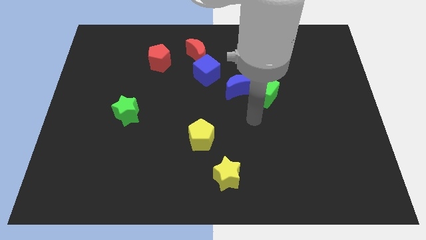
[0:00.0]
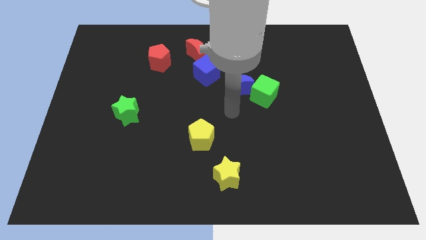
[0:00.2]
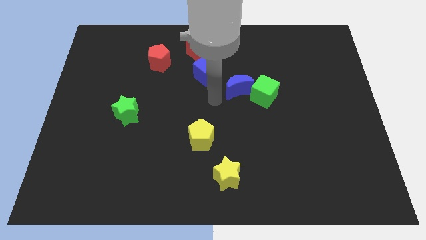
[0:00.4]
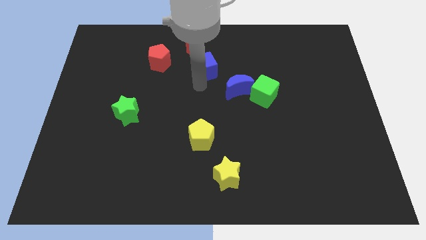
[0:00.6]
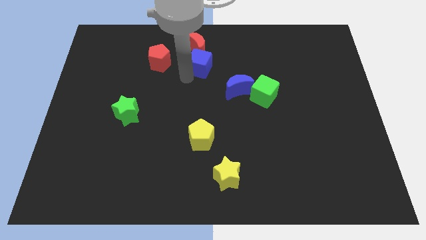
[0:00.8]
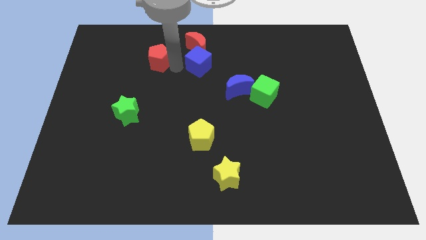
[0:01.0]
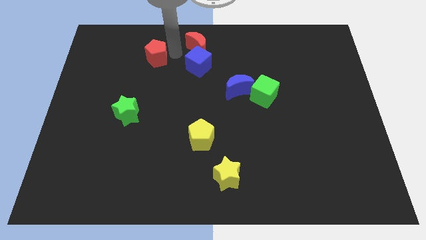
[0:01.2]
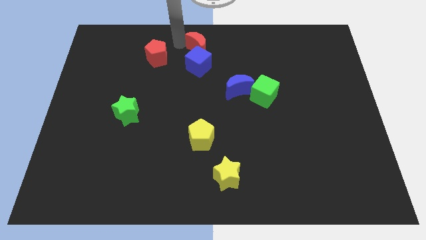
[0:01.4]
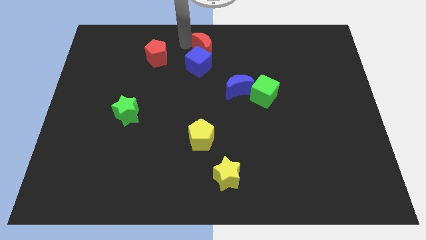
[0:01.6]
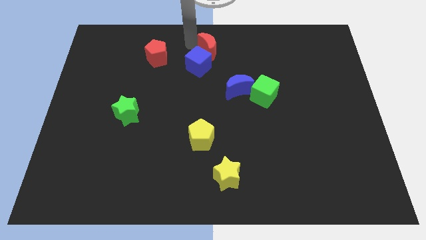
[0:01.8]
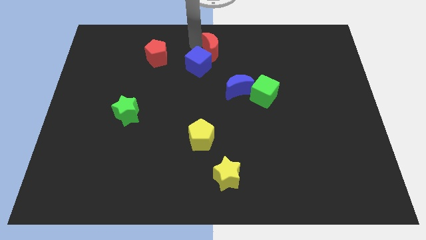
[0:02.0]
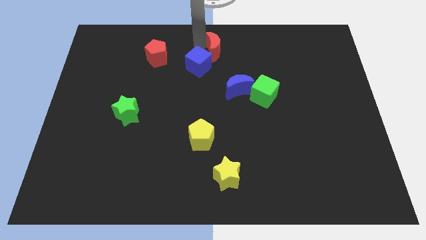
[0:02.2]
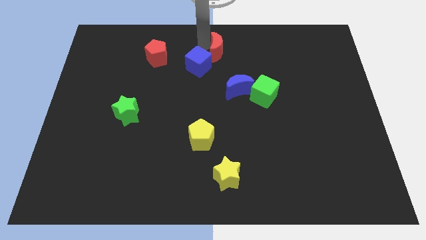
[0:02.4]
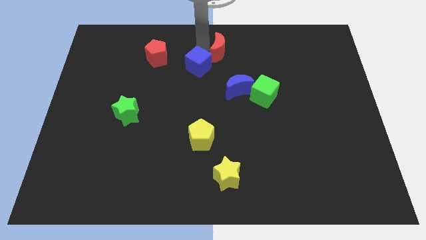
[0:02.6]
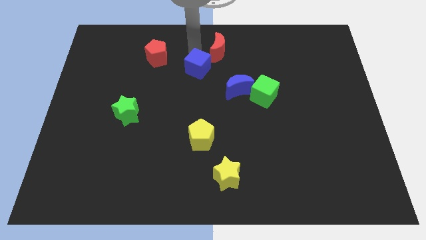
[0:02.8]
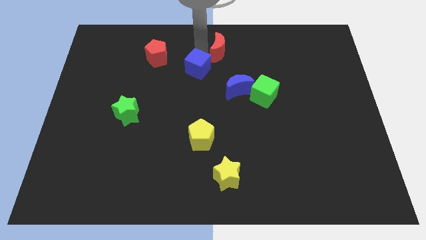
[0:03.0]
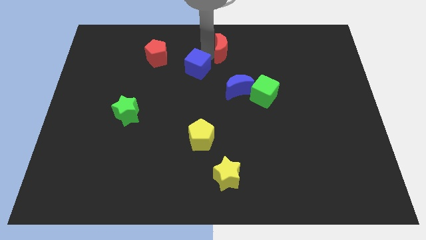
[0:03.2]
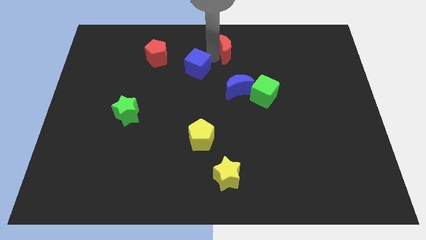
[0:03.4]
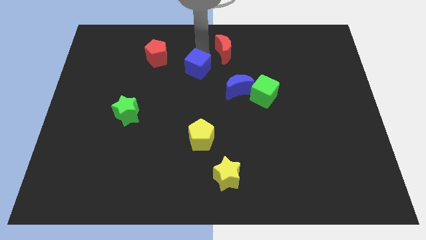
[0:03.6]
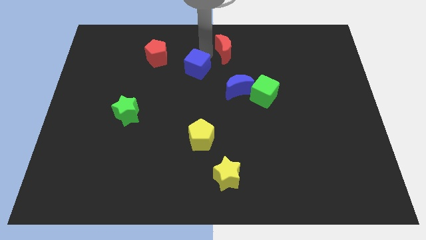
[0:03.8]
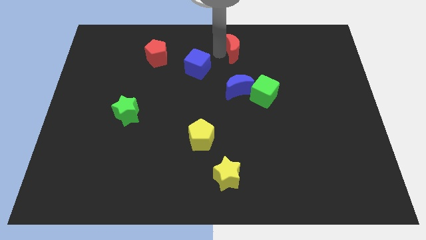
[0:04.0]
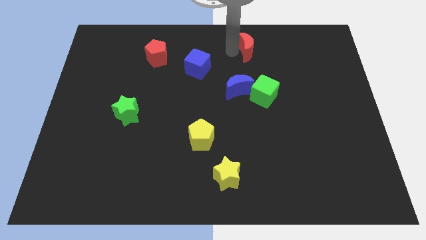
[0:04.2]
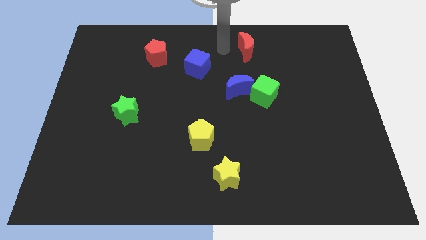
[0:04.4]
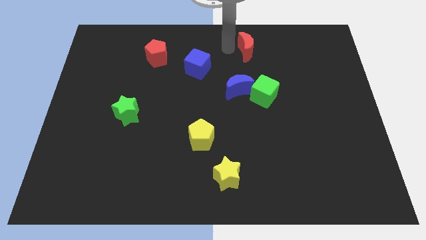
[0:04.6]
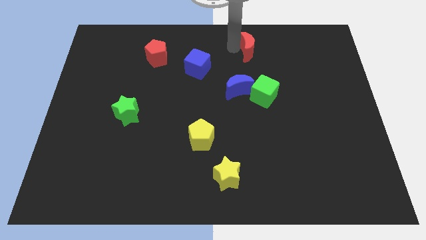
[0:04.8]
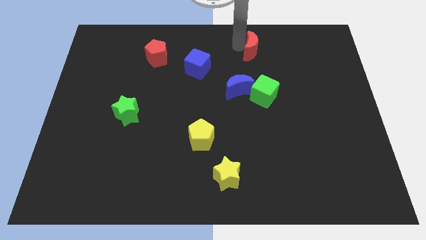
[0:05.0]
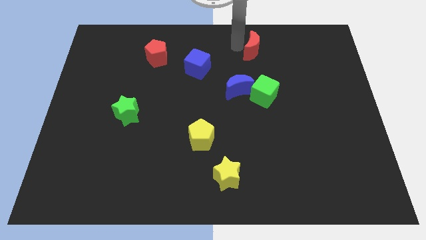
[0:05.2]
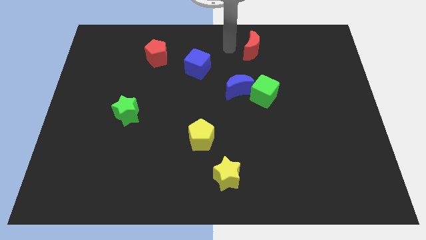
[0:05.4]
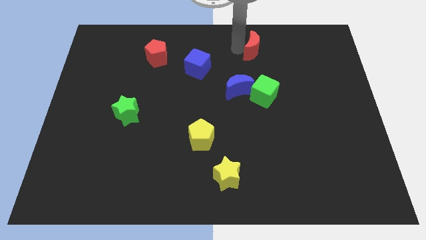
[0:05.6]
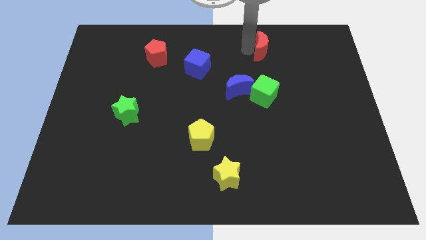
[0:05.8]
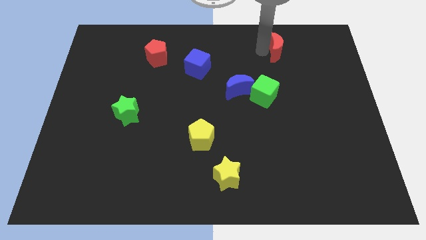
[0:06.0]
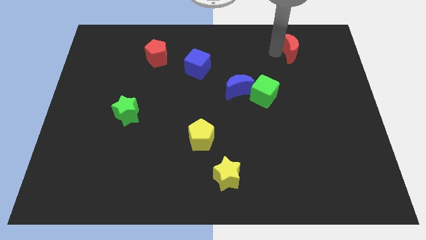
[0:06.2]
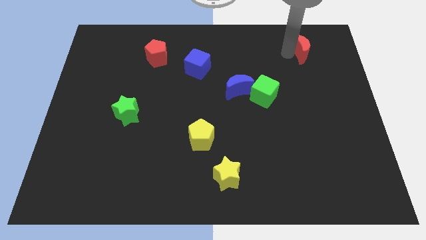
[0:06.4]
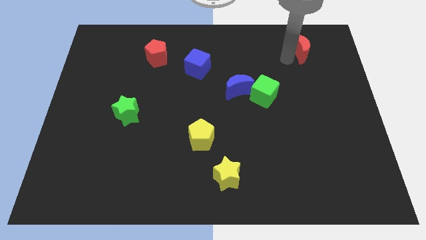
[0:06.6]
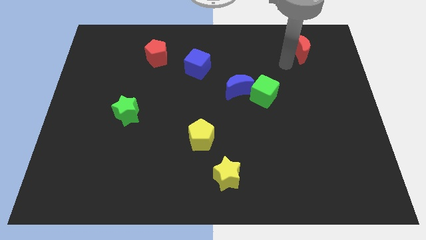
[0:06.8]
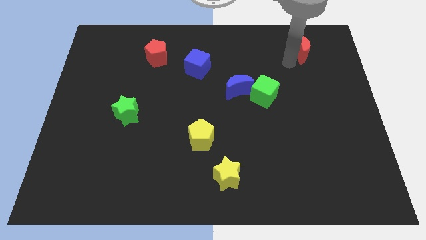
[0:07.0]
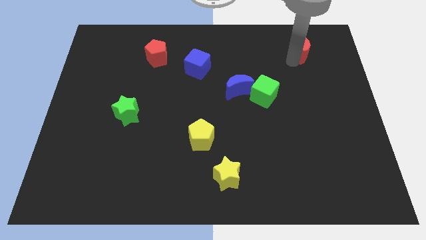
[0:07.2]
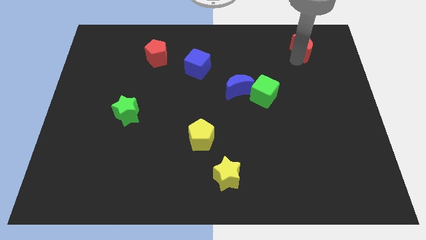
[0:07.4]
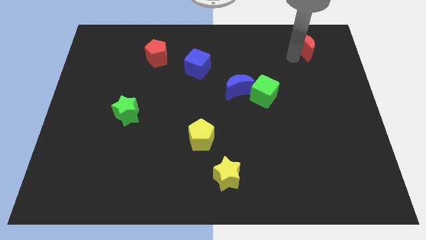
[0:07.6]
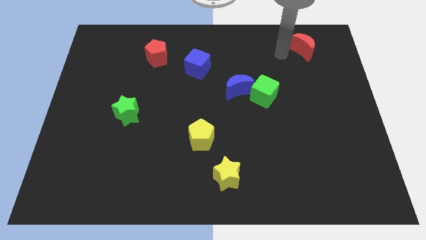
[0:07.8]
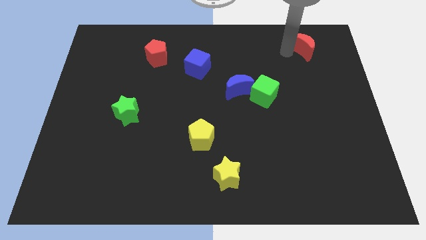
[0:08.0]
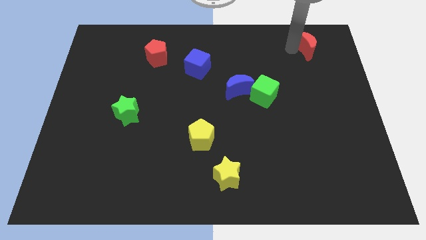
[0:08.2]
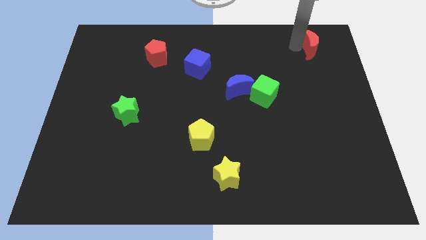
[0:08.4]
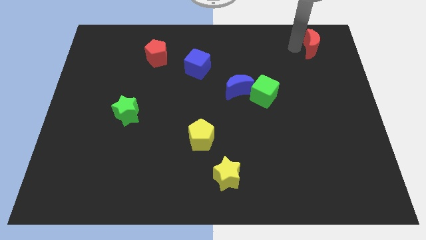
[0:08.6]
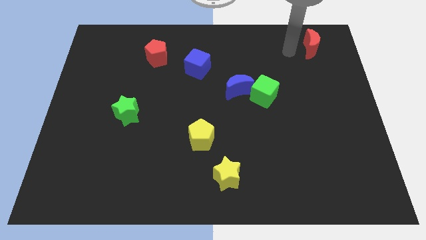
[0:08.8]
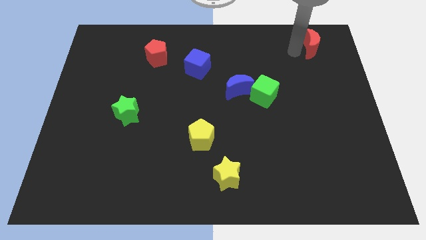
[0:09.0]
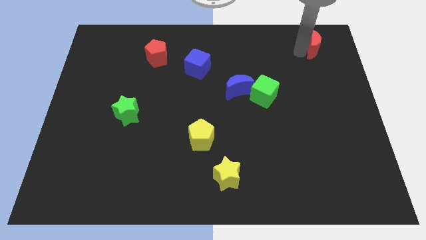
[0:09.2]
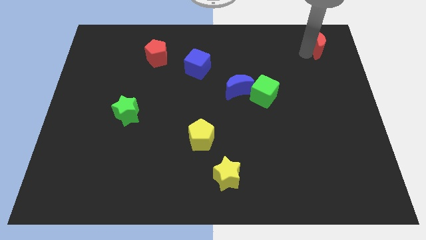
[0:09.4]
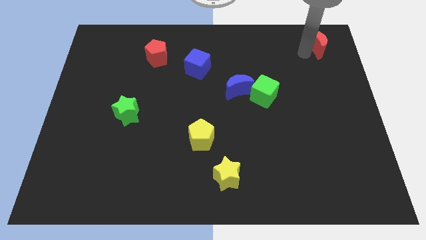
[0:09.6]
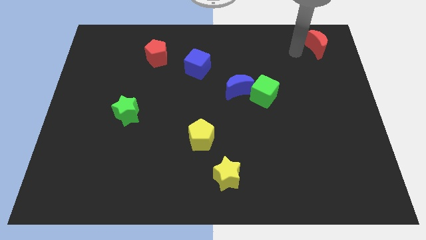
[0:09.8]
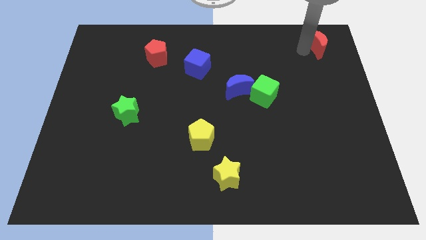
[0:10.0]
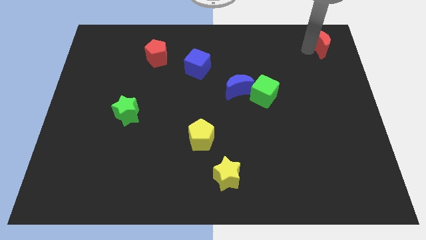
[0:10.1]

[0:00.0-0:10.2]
put the red moon to the top right
